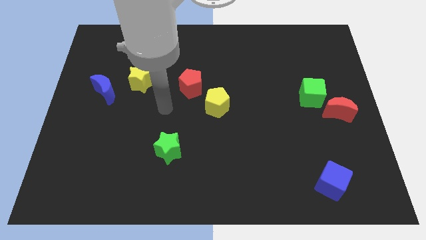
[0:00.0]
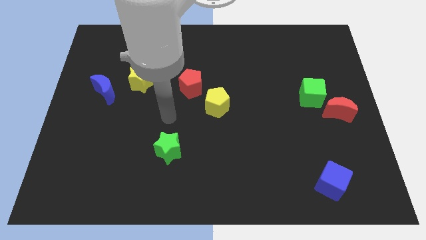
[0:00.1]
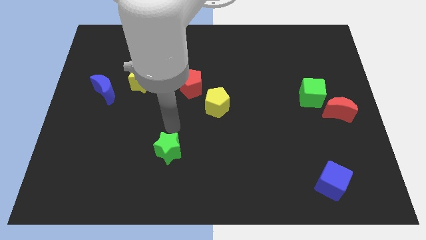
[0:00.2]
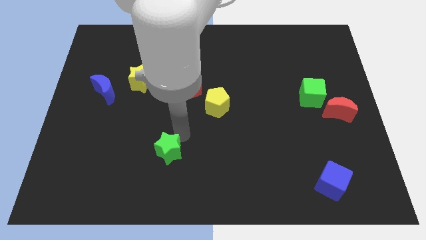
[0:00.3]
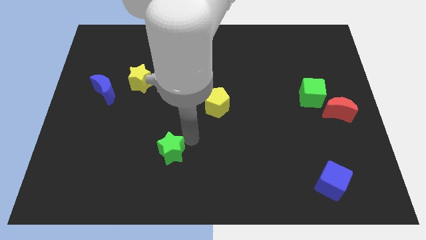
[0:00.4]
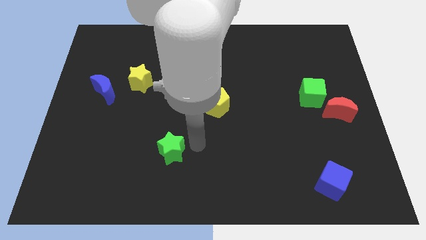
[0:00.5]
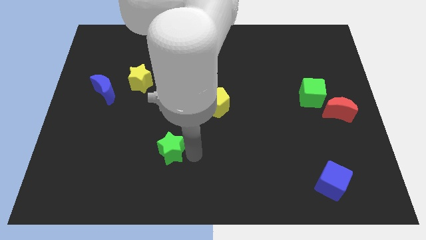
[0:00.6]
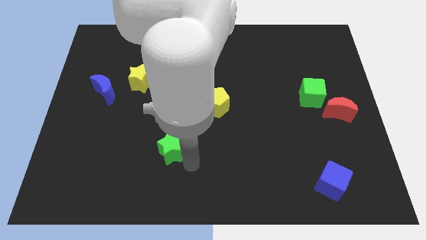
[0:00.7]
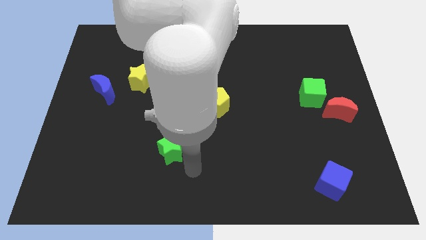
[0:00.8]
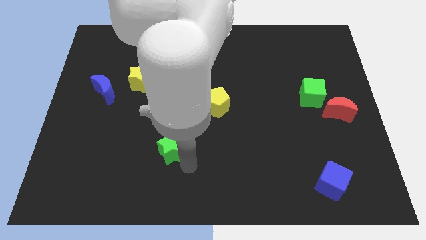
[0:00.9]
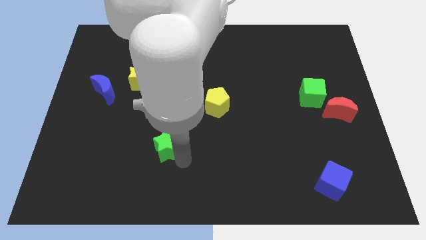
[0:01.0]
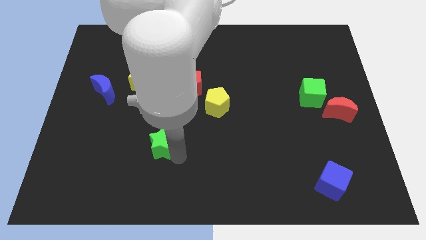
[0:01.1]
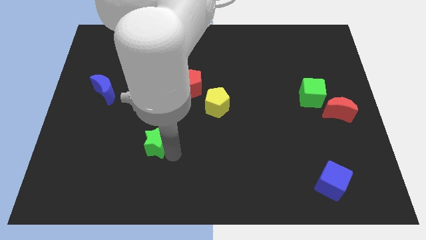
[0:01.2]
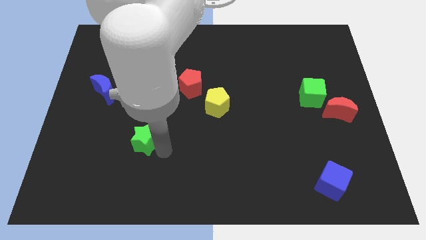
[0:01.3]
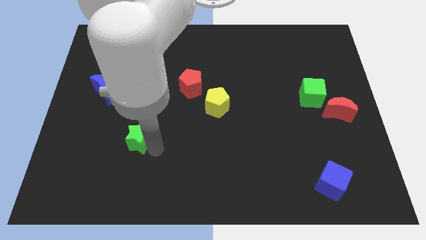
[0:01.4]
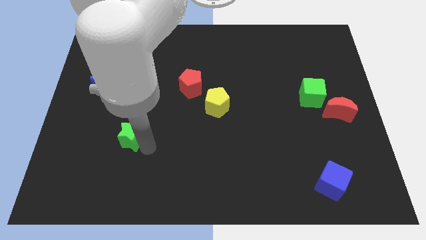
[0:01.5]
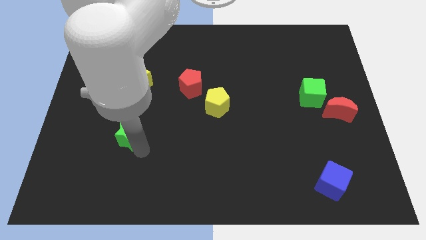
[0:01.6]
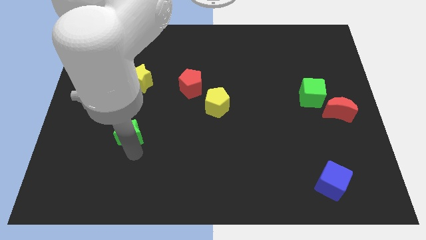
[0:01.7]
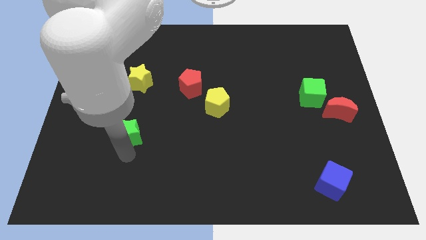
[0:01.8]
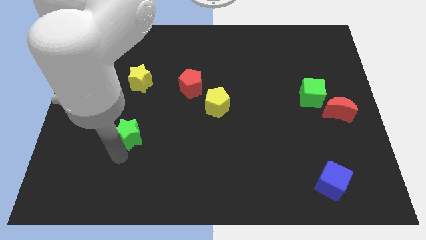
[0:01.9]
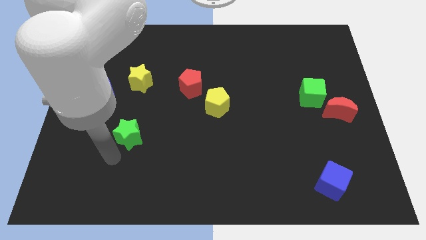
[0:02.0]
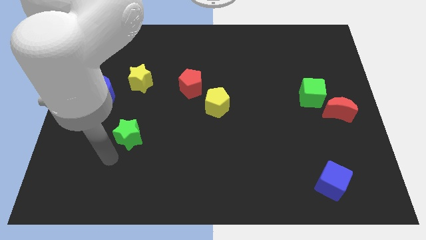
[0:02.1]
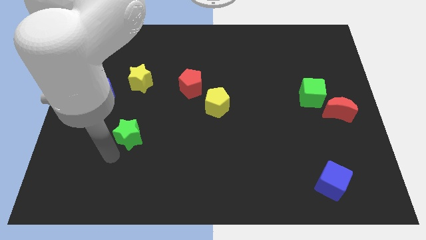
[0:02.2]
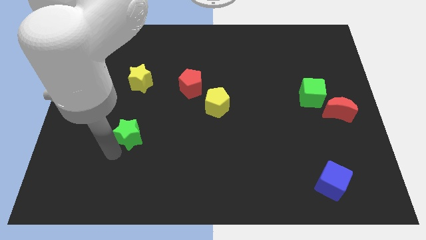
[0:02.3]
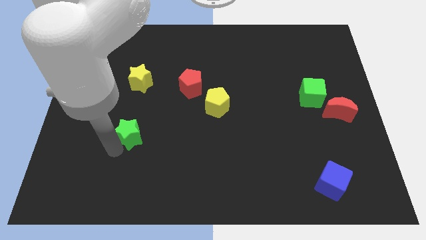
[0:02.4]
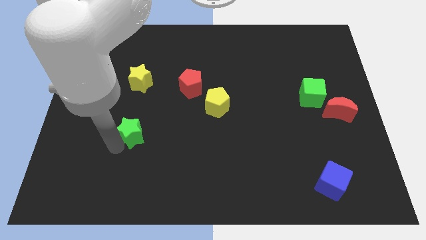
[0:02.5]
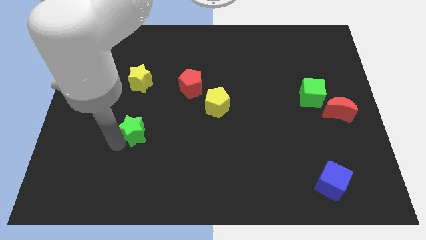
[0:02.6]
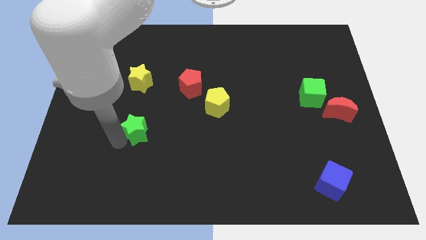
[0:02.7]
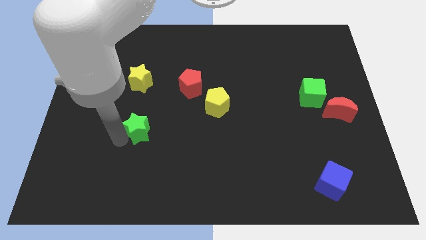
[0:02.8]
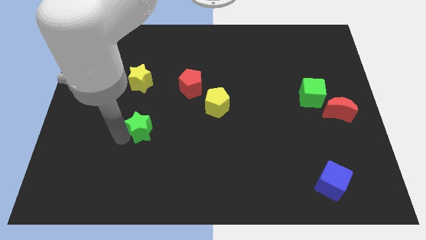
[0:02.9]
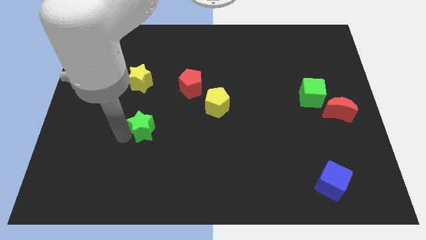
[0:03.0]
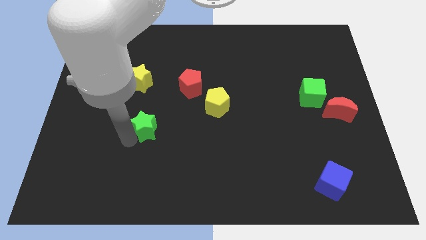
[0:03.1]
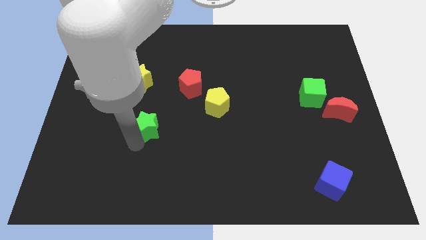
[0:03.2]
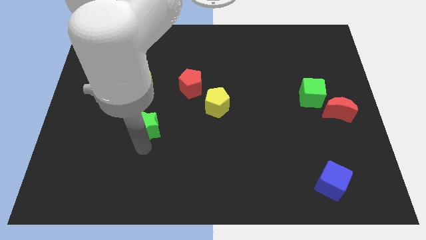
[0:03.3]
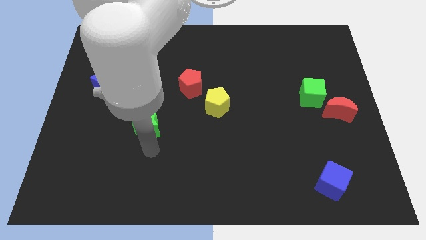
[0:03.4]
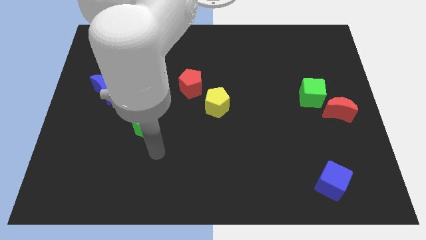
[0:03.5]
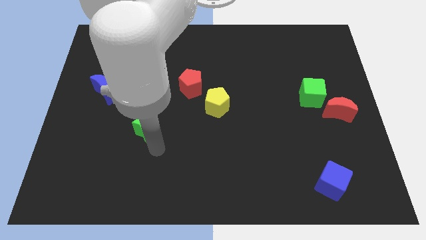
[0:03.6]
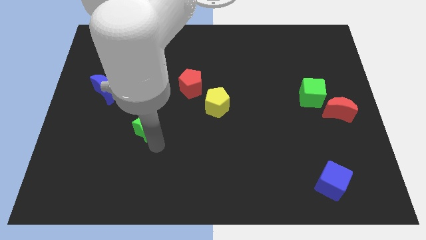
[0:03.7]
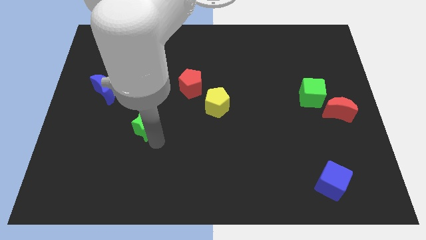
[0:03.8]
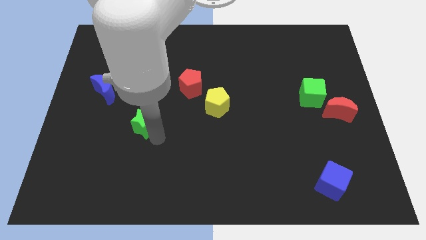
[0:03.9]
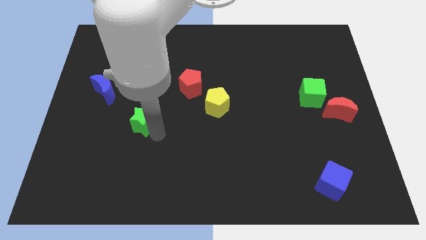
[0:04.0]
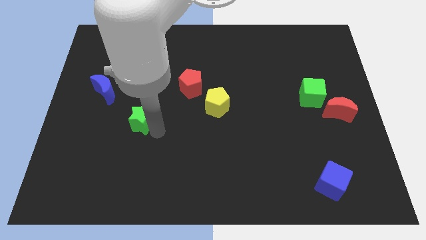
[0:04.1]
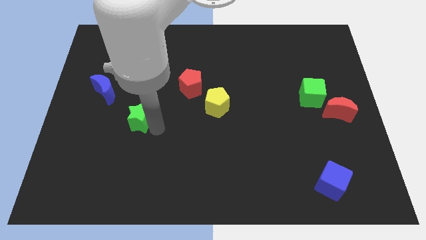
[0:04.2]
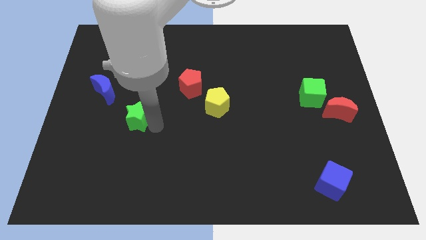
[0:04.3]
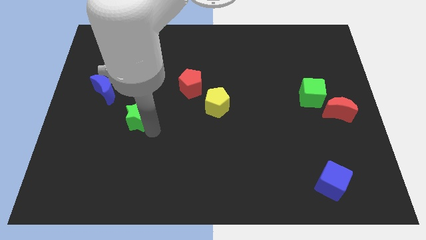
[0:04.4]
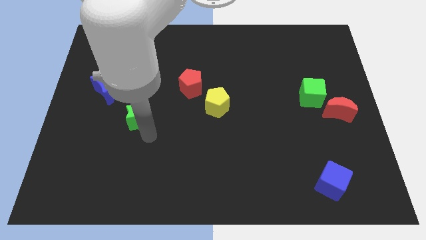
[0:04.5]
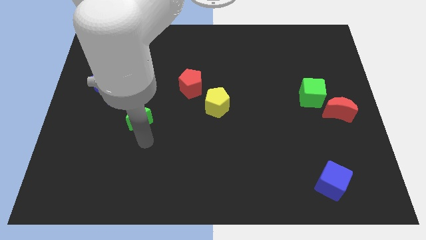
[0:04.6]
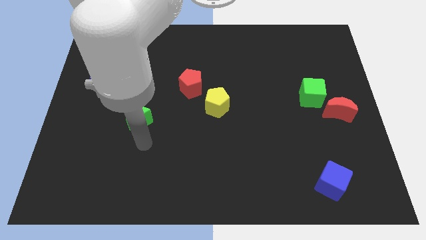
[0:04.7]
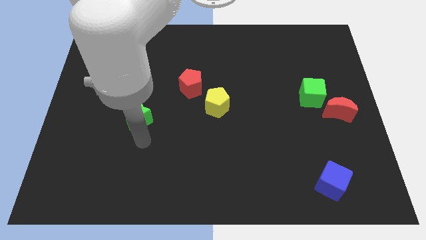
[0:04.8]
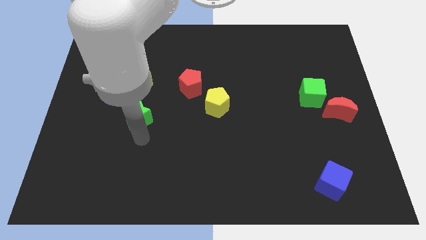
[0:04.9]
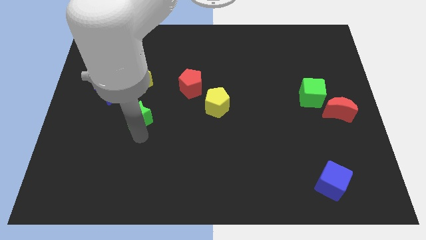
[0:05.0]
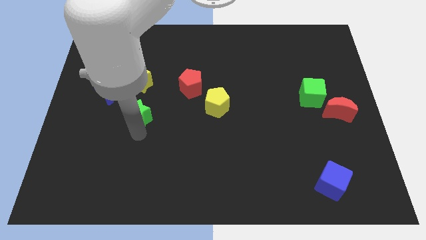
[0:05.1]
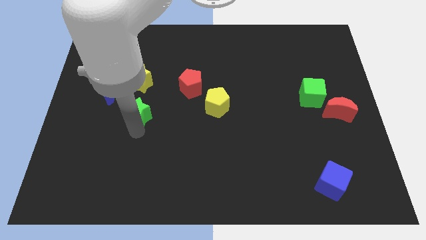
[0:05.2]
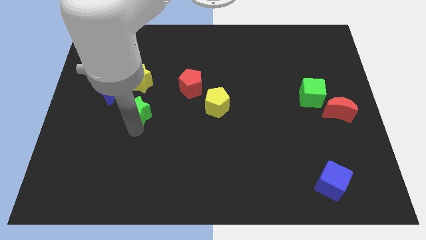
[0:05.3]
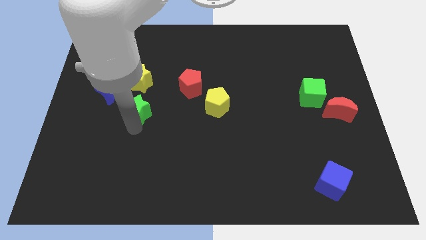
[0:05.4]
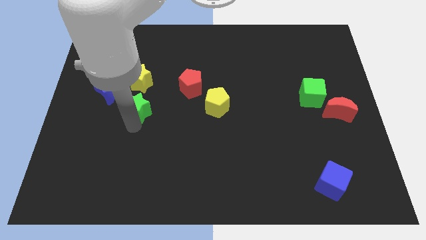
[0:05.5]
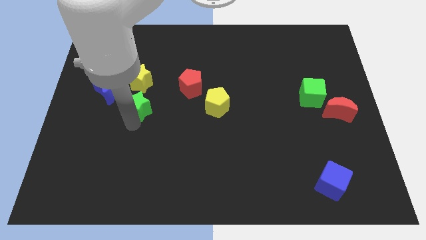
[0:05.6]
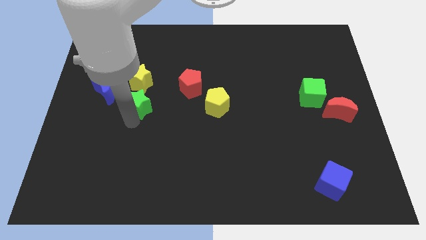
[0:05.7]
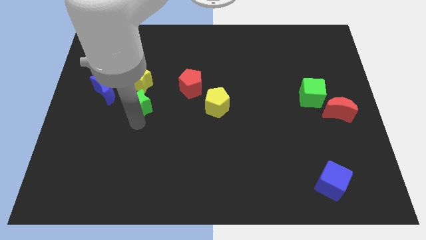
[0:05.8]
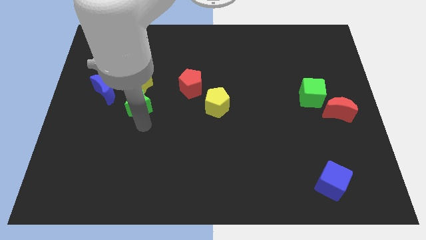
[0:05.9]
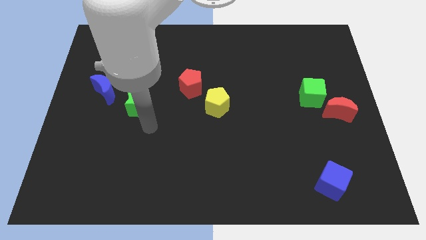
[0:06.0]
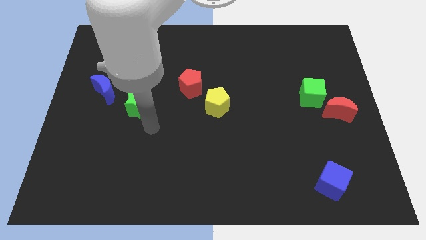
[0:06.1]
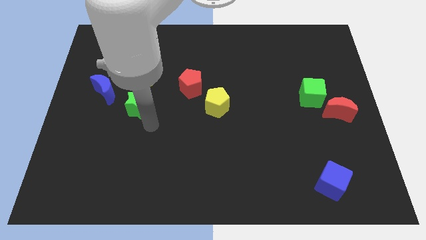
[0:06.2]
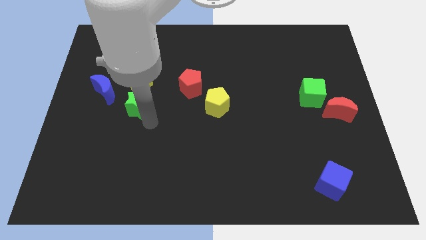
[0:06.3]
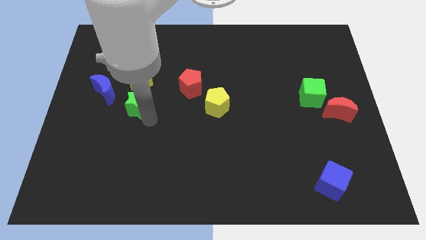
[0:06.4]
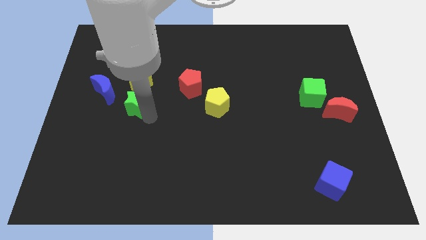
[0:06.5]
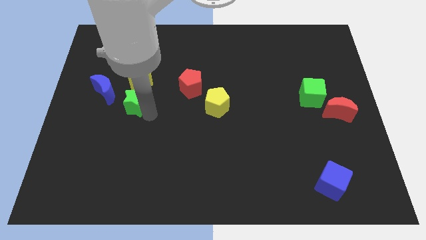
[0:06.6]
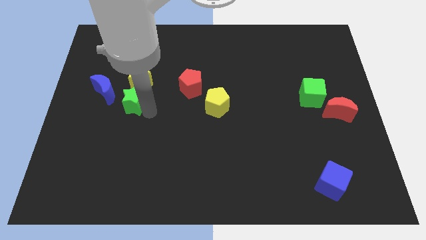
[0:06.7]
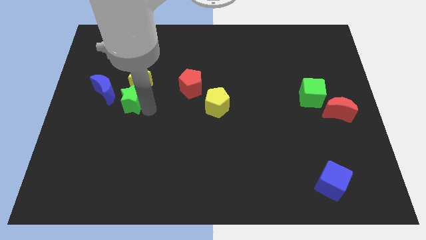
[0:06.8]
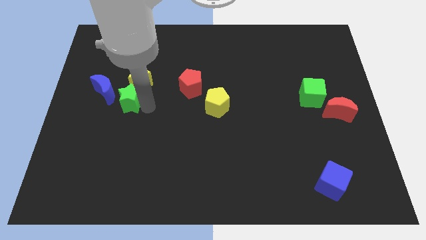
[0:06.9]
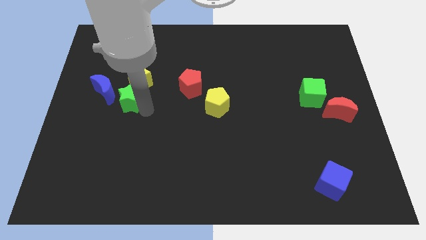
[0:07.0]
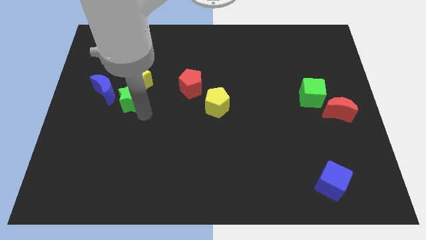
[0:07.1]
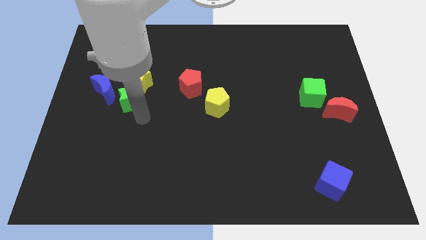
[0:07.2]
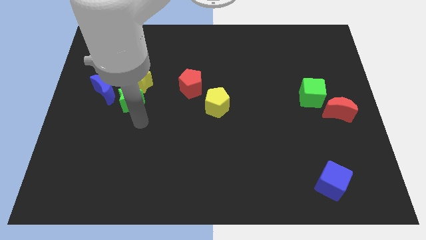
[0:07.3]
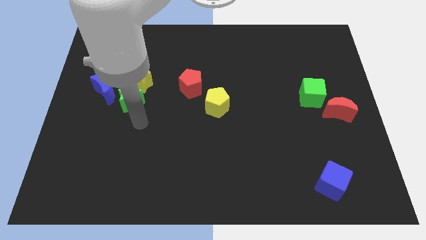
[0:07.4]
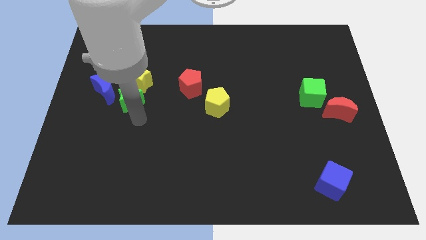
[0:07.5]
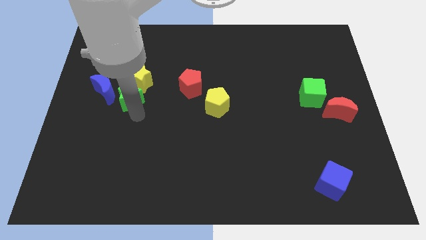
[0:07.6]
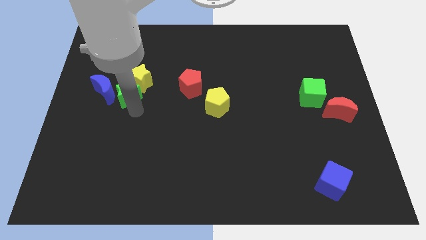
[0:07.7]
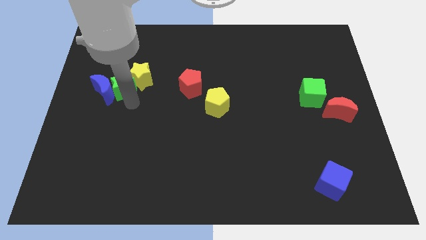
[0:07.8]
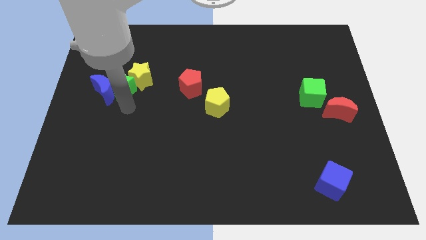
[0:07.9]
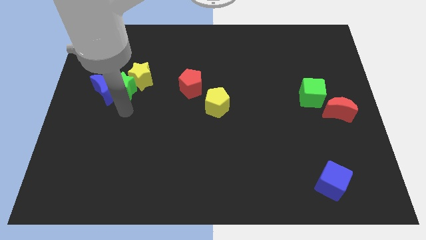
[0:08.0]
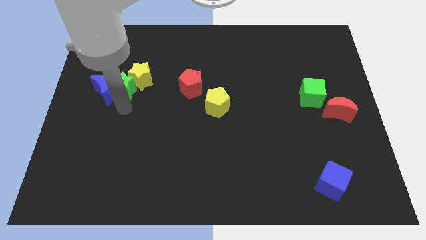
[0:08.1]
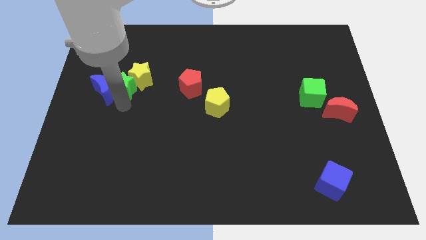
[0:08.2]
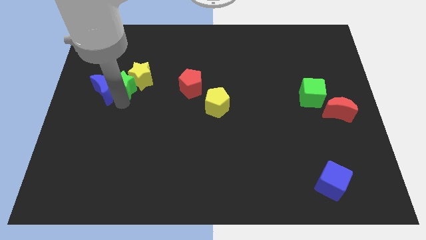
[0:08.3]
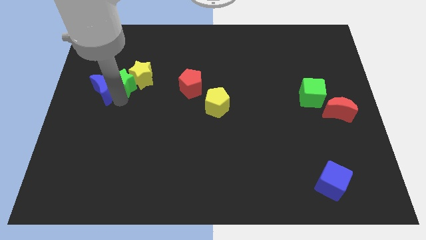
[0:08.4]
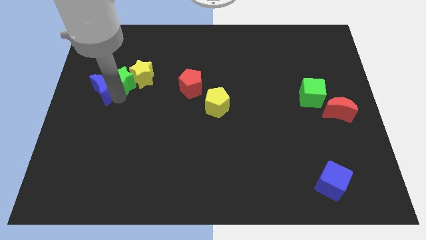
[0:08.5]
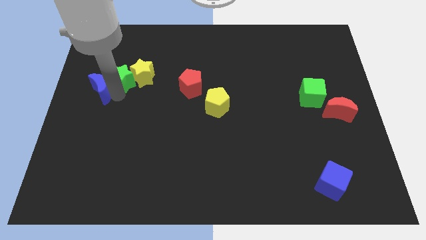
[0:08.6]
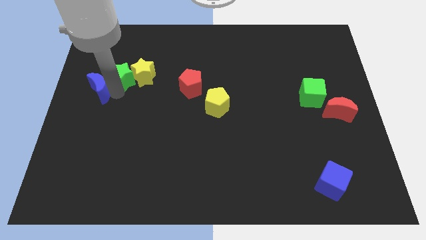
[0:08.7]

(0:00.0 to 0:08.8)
move the green star to the top left side of the yellow star
